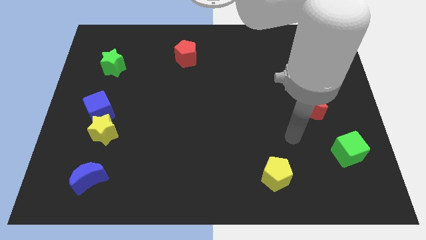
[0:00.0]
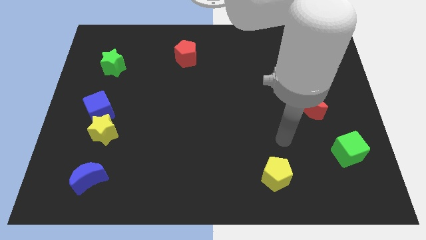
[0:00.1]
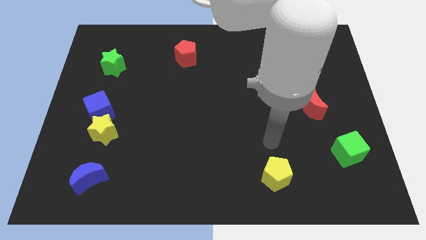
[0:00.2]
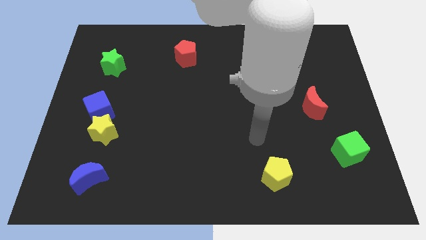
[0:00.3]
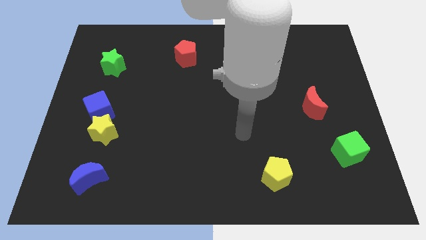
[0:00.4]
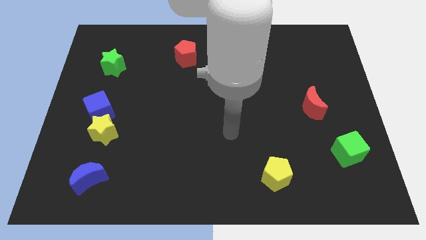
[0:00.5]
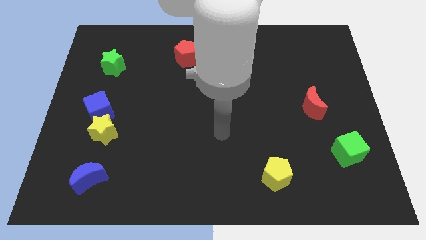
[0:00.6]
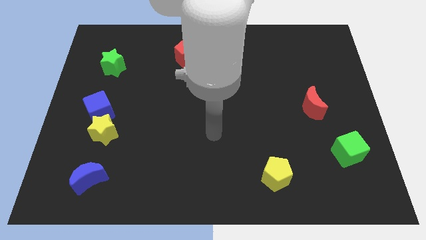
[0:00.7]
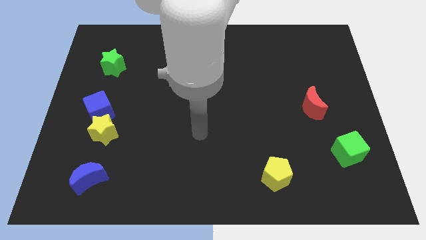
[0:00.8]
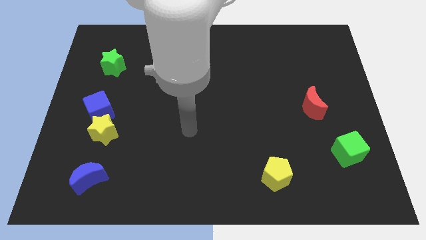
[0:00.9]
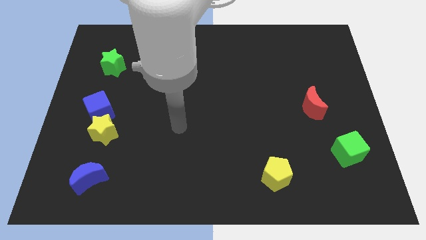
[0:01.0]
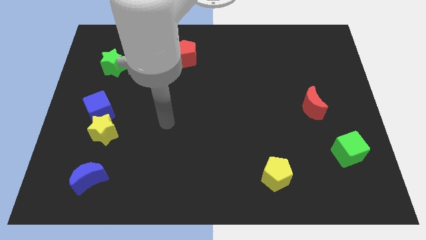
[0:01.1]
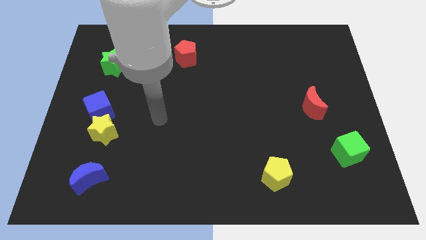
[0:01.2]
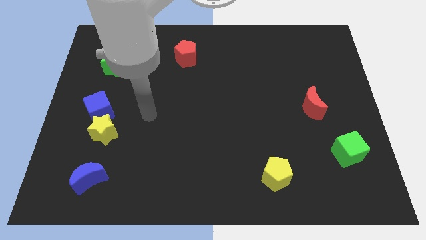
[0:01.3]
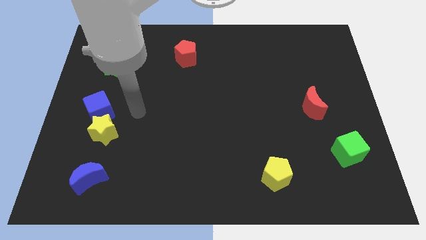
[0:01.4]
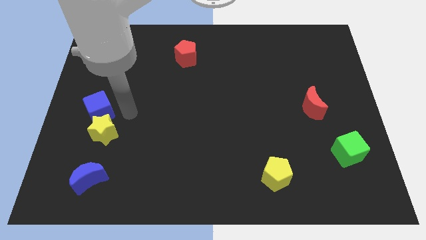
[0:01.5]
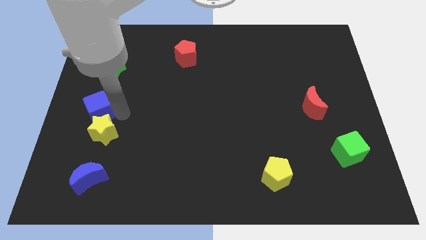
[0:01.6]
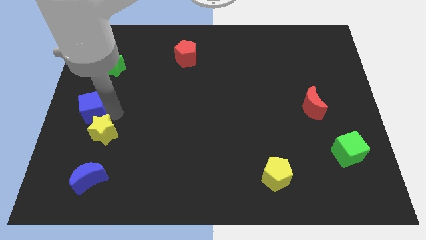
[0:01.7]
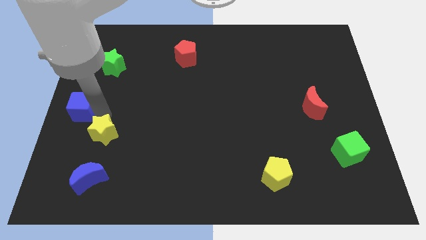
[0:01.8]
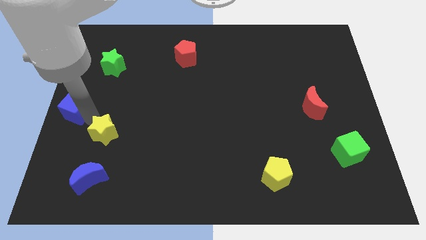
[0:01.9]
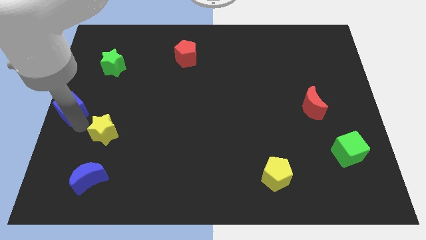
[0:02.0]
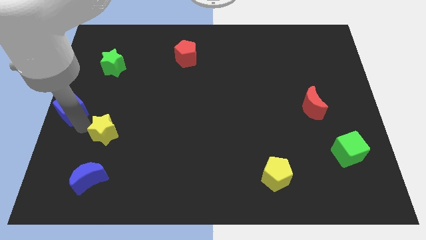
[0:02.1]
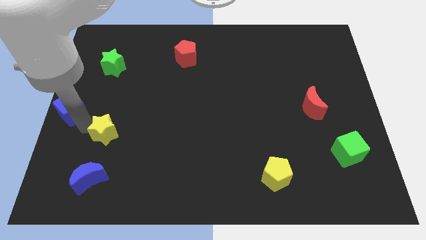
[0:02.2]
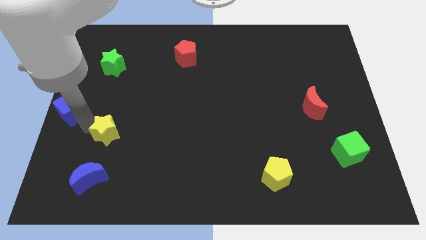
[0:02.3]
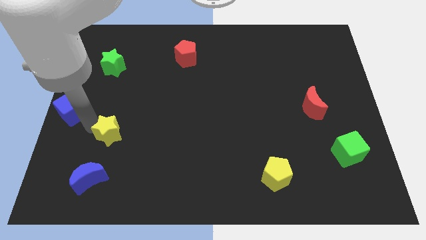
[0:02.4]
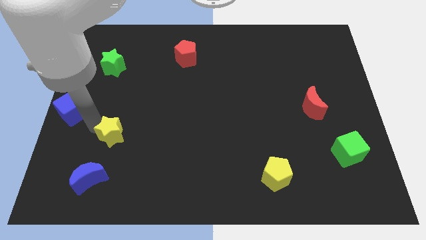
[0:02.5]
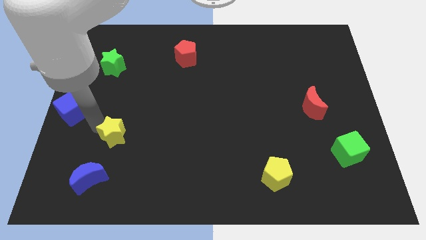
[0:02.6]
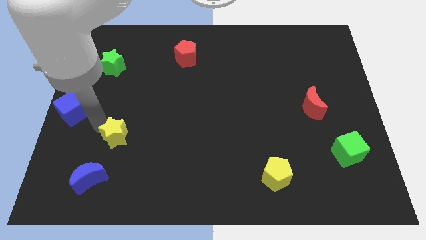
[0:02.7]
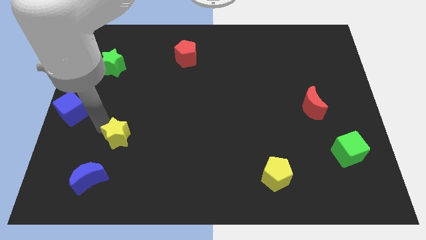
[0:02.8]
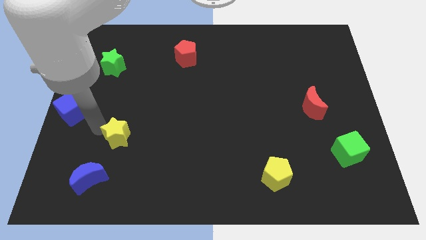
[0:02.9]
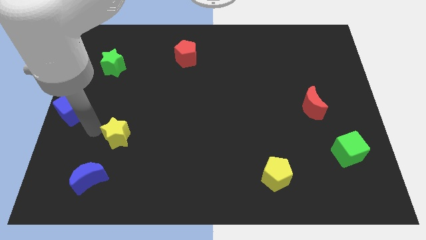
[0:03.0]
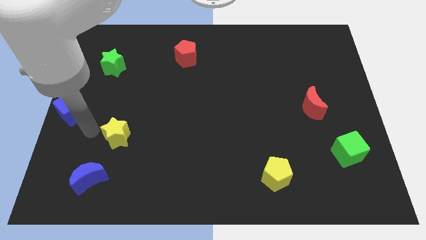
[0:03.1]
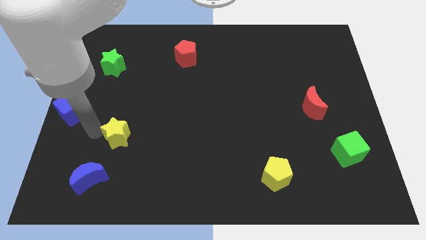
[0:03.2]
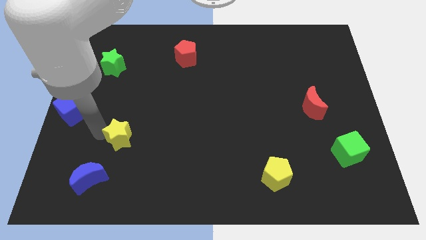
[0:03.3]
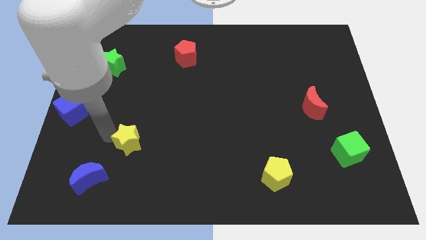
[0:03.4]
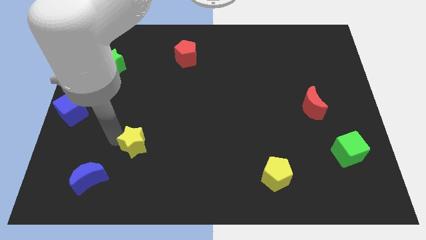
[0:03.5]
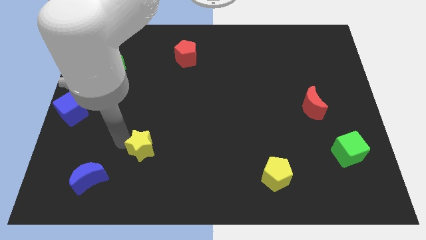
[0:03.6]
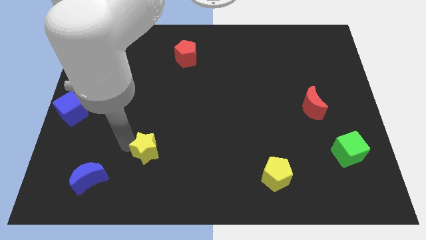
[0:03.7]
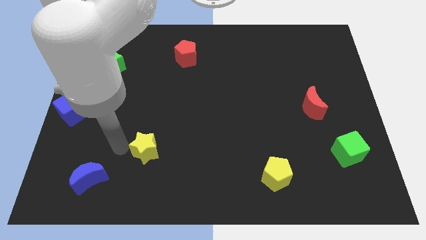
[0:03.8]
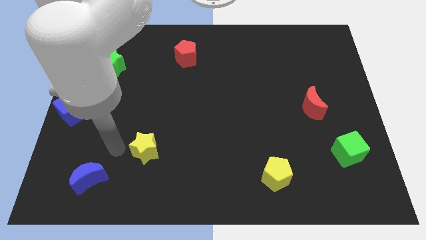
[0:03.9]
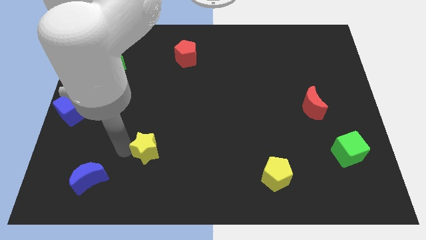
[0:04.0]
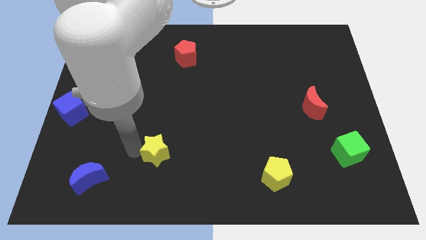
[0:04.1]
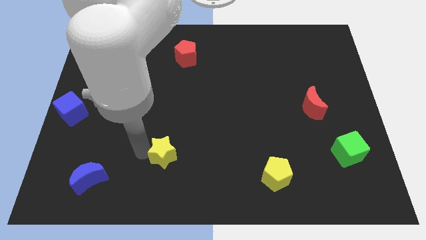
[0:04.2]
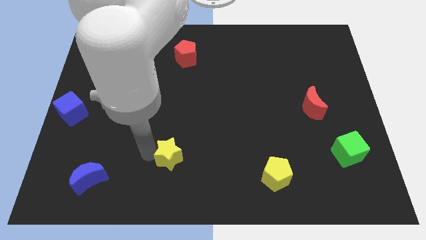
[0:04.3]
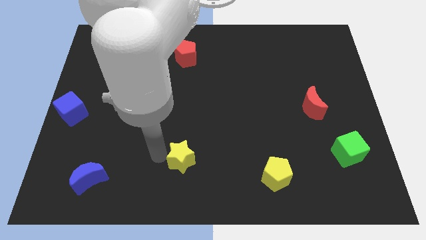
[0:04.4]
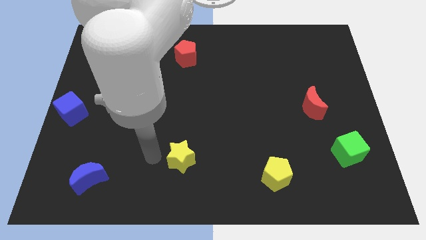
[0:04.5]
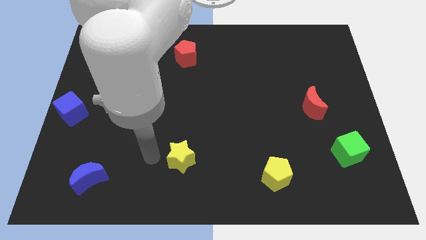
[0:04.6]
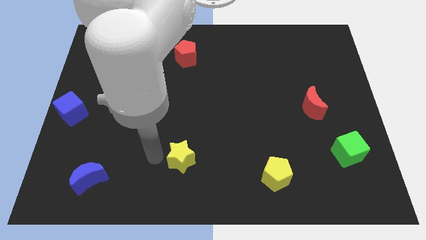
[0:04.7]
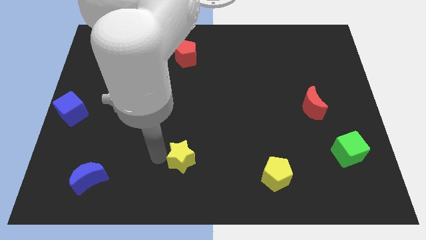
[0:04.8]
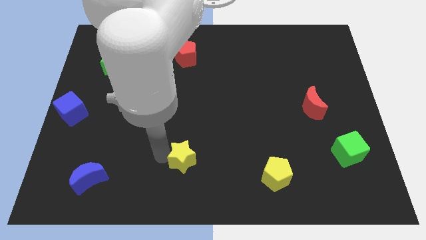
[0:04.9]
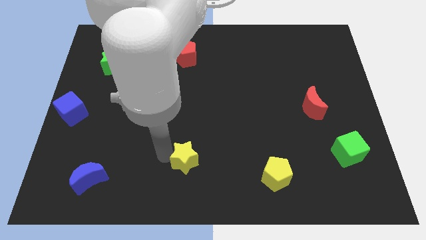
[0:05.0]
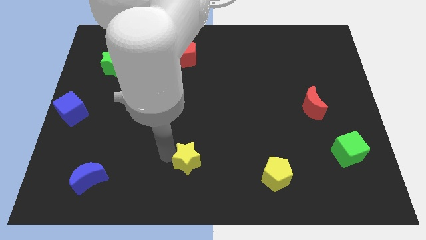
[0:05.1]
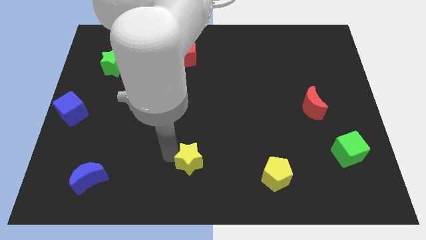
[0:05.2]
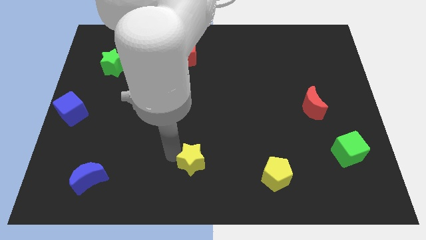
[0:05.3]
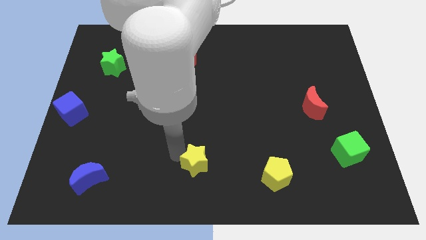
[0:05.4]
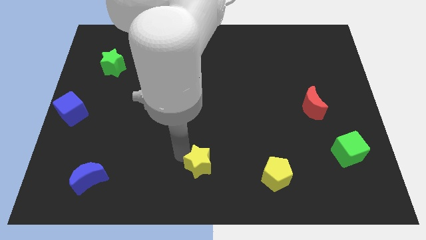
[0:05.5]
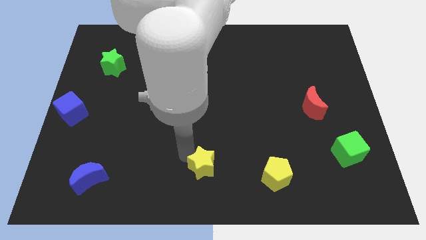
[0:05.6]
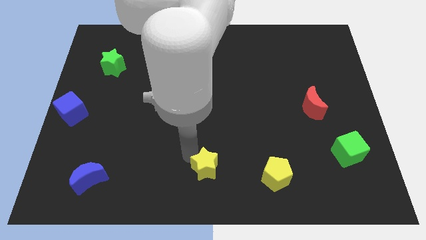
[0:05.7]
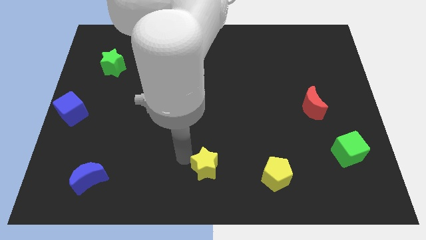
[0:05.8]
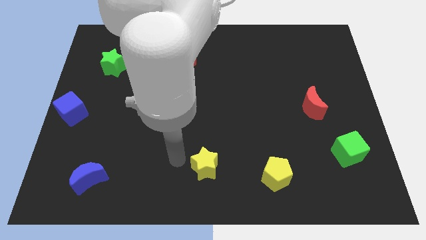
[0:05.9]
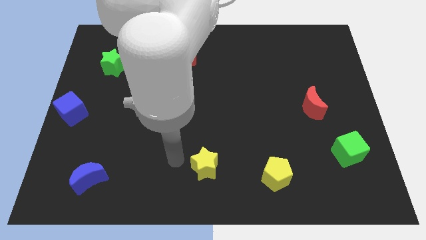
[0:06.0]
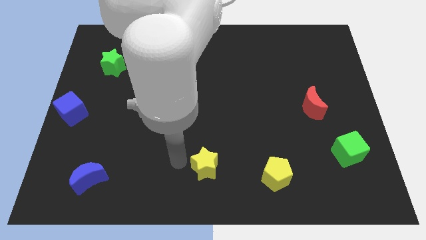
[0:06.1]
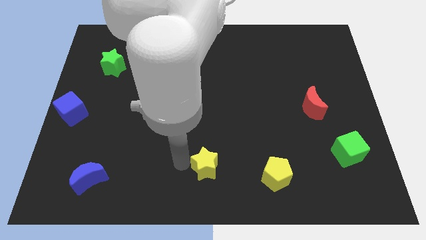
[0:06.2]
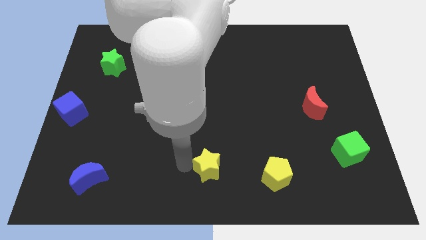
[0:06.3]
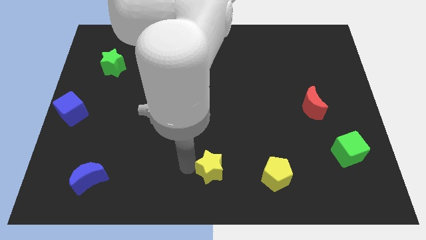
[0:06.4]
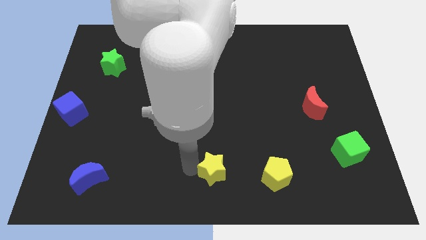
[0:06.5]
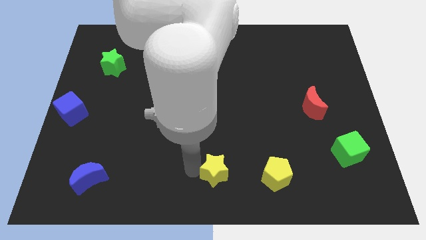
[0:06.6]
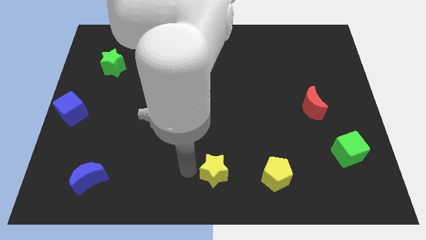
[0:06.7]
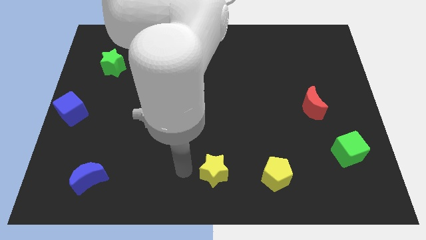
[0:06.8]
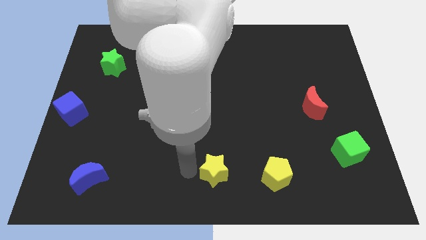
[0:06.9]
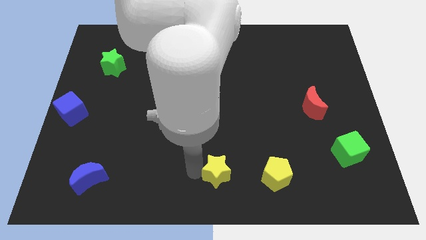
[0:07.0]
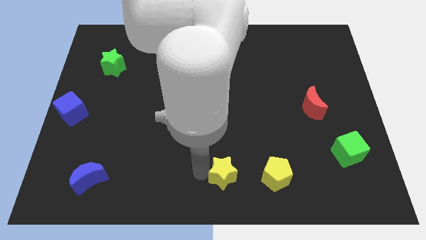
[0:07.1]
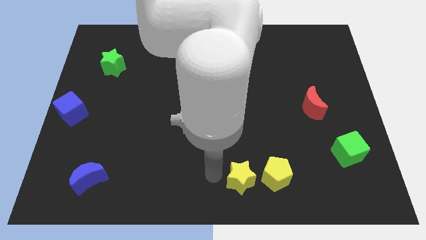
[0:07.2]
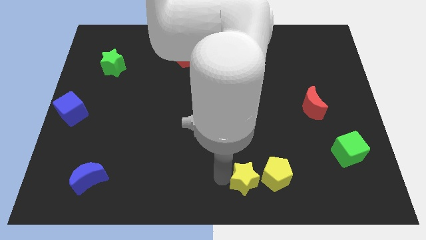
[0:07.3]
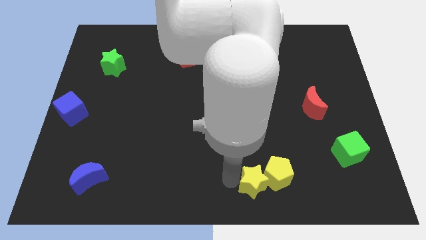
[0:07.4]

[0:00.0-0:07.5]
move the yellow star close to the yellow pentagon
